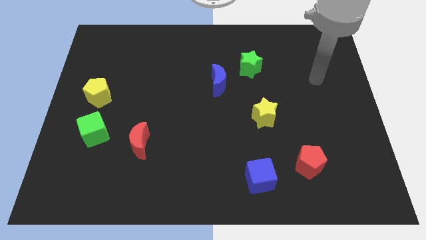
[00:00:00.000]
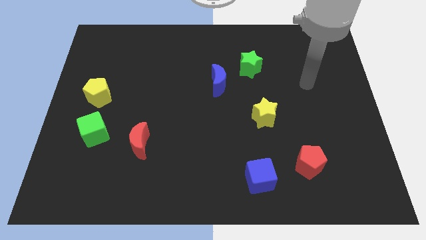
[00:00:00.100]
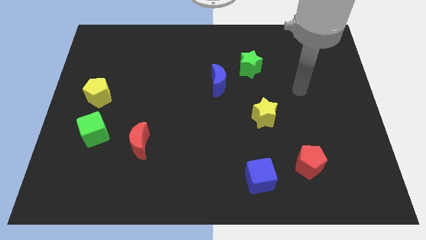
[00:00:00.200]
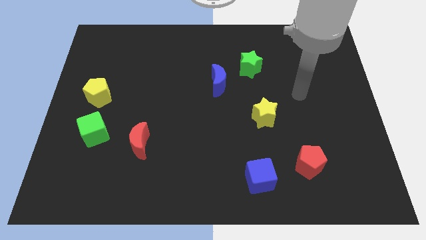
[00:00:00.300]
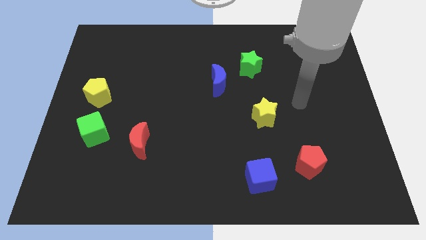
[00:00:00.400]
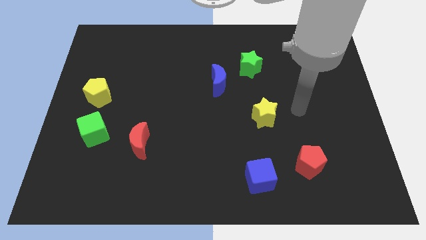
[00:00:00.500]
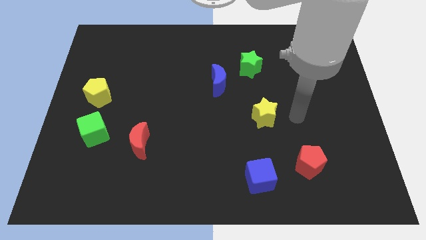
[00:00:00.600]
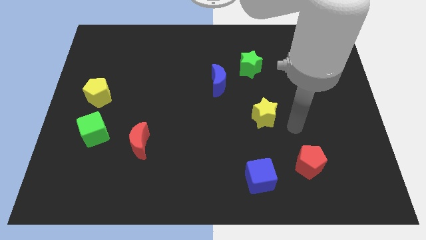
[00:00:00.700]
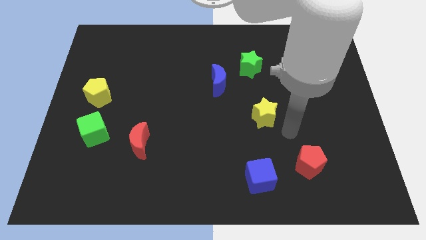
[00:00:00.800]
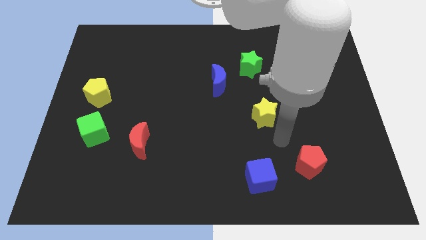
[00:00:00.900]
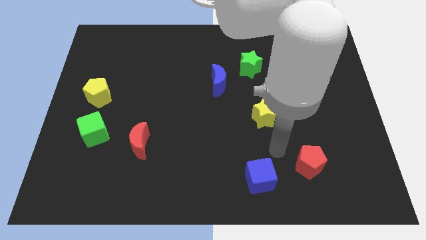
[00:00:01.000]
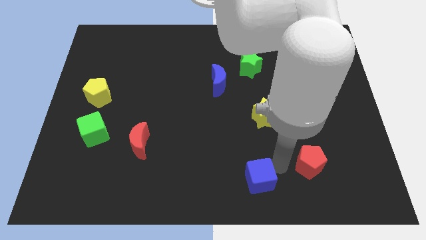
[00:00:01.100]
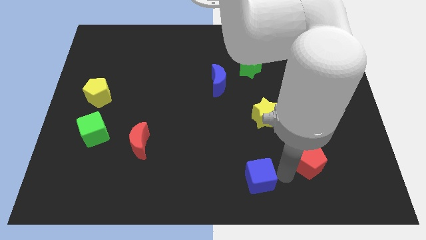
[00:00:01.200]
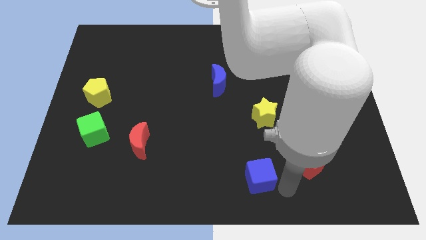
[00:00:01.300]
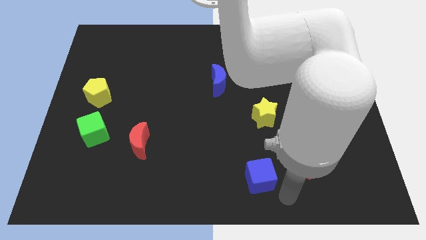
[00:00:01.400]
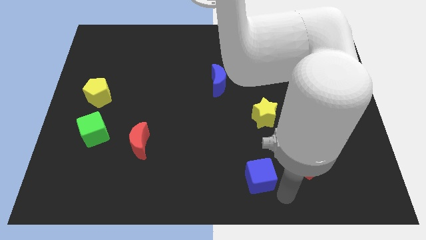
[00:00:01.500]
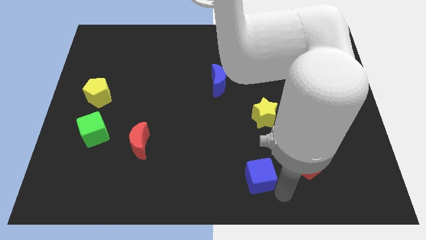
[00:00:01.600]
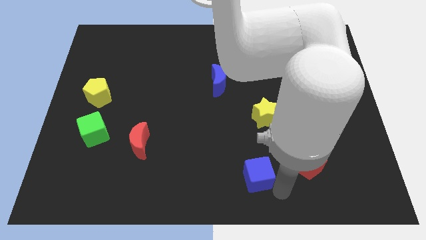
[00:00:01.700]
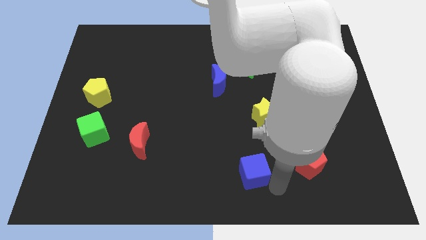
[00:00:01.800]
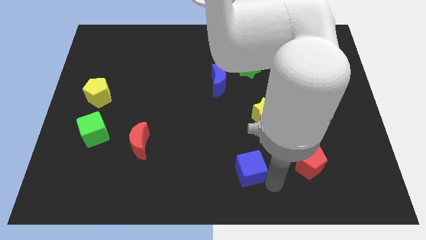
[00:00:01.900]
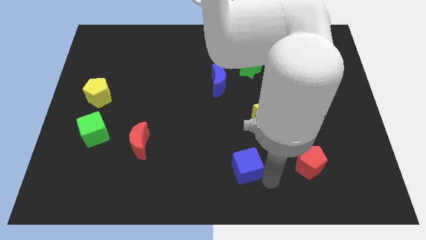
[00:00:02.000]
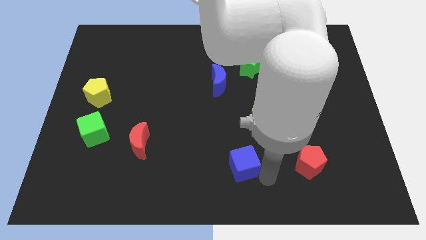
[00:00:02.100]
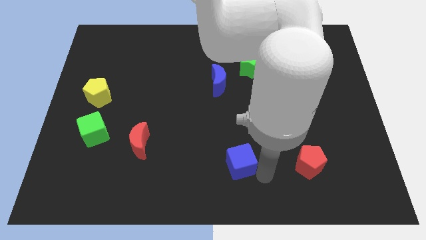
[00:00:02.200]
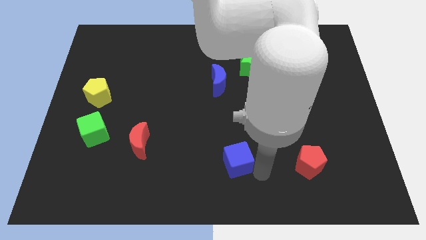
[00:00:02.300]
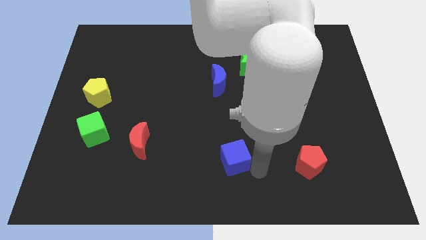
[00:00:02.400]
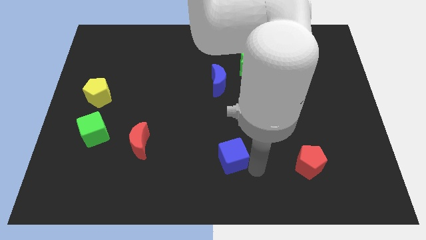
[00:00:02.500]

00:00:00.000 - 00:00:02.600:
slightly move the blue cube upwards and left

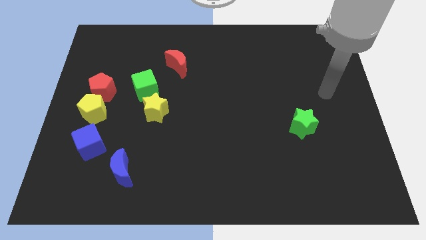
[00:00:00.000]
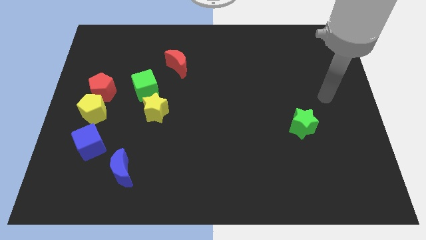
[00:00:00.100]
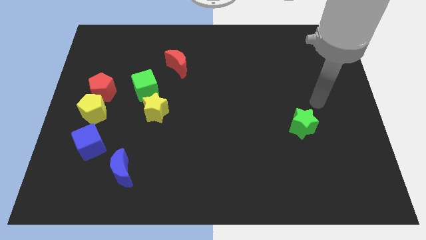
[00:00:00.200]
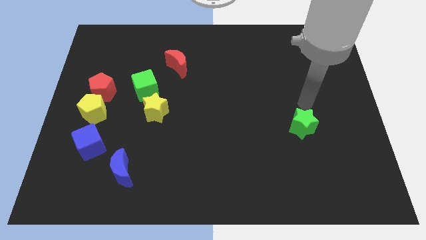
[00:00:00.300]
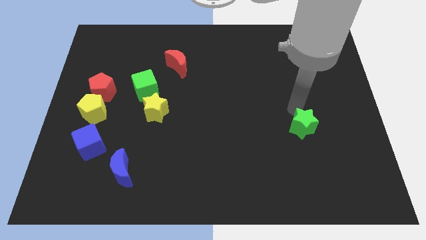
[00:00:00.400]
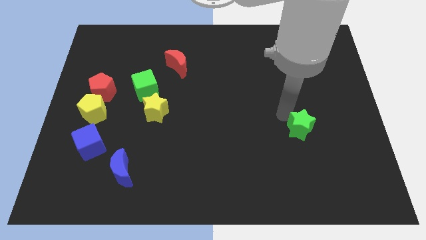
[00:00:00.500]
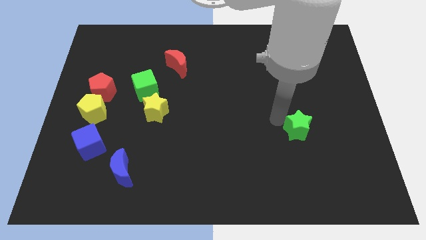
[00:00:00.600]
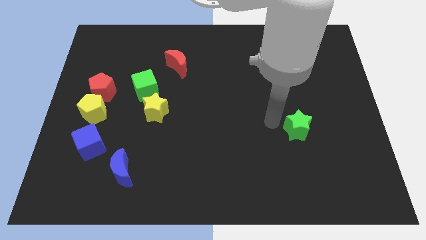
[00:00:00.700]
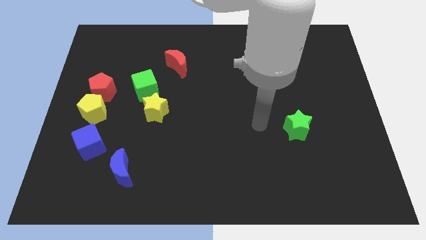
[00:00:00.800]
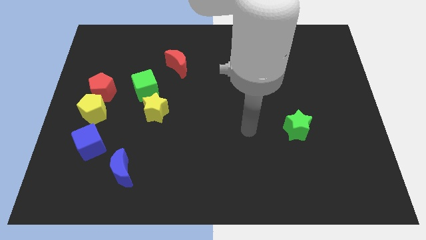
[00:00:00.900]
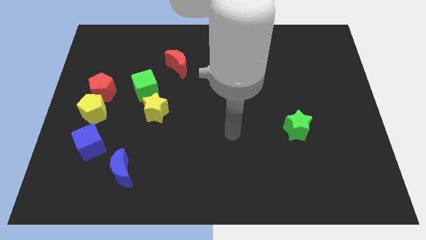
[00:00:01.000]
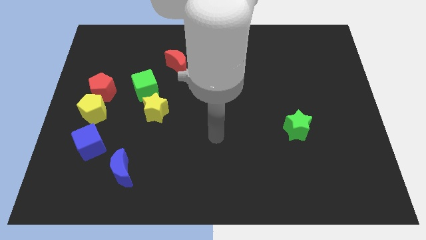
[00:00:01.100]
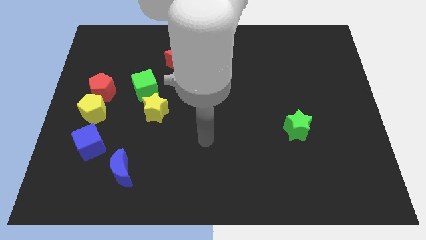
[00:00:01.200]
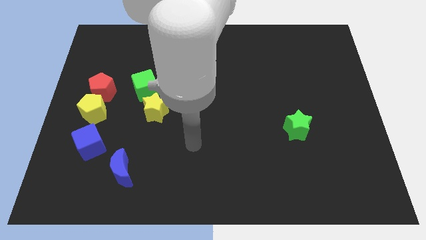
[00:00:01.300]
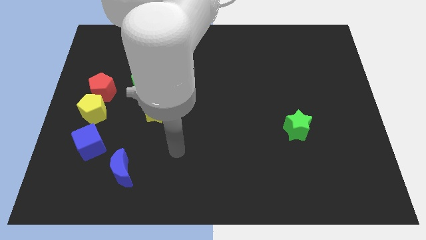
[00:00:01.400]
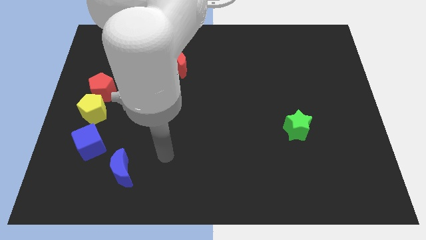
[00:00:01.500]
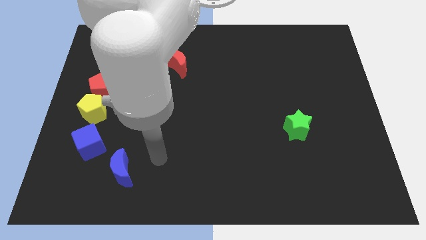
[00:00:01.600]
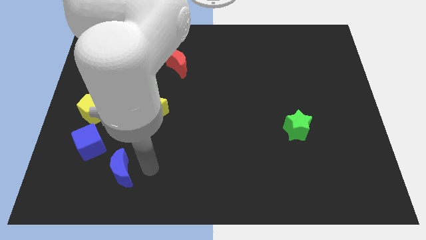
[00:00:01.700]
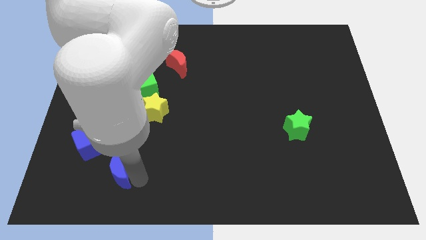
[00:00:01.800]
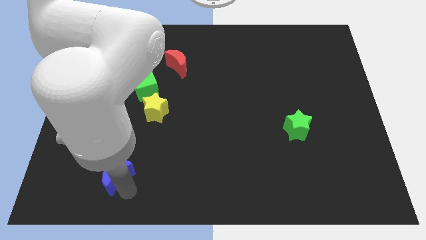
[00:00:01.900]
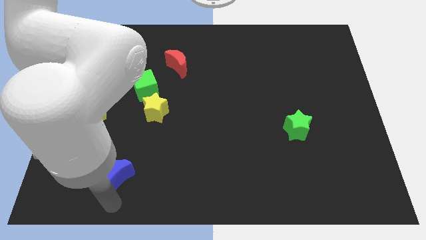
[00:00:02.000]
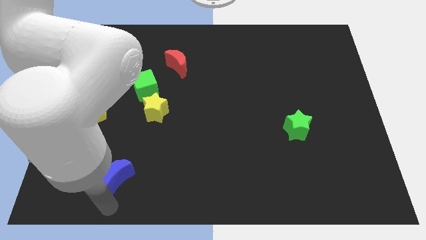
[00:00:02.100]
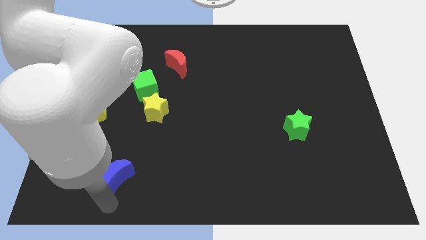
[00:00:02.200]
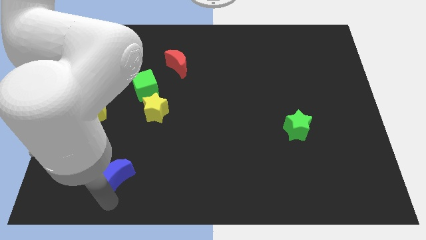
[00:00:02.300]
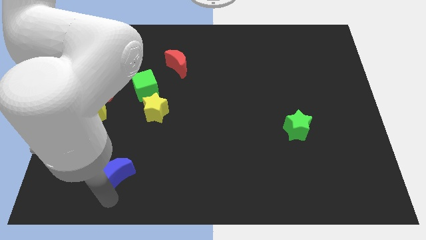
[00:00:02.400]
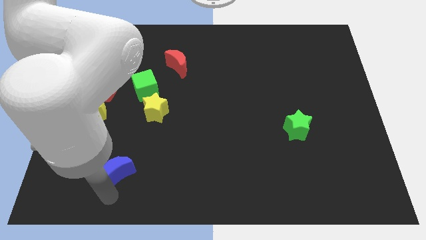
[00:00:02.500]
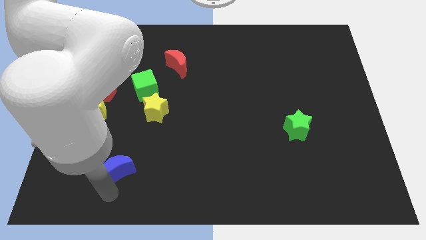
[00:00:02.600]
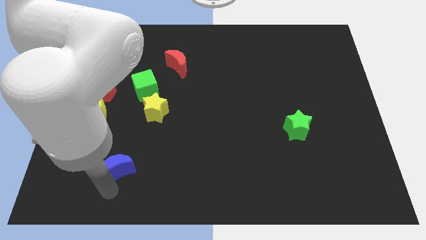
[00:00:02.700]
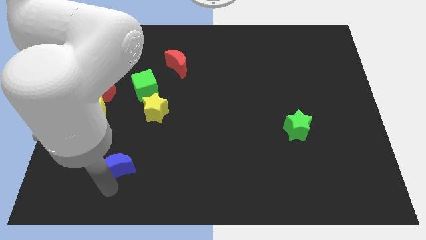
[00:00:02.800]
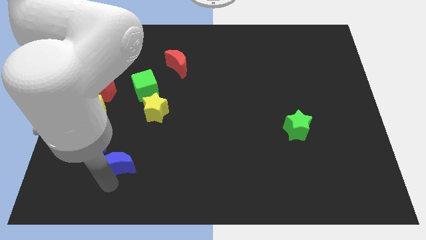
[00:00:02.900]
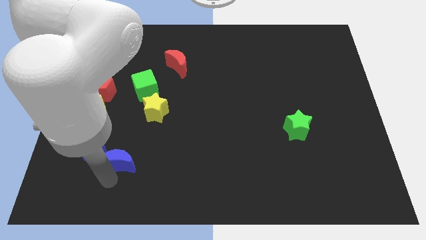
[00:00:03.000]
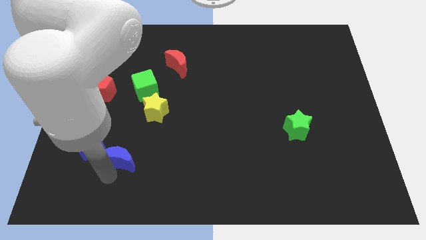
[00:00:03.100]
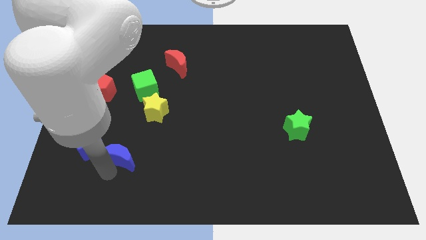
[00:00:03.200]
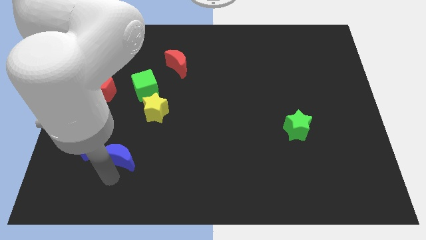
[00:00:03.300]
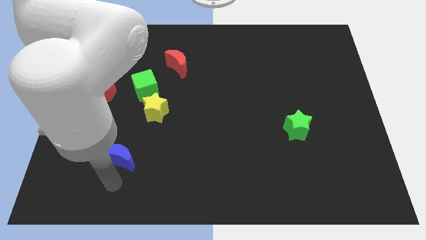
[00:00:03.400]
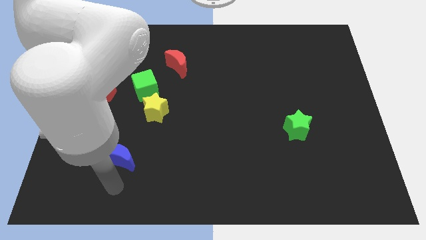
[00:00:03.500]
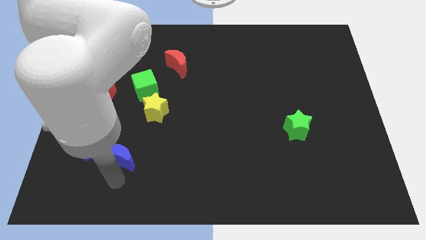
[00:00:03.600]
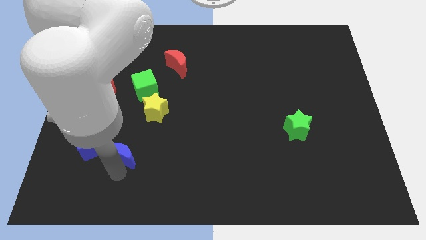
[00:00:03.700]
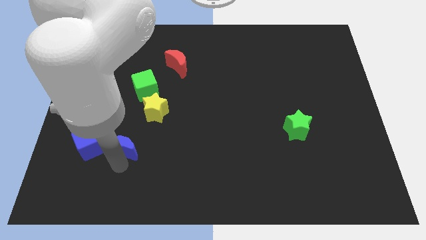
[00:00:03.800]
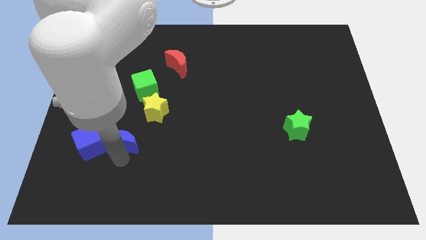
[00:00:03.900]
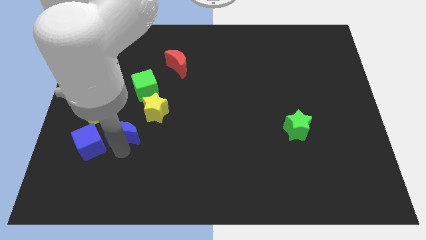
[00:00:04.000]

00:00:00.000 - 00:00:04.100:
slide the blue moon a little upwards

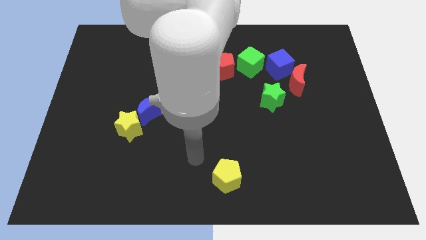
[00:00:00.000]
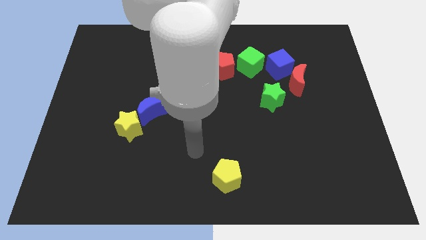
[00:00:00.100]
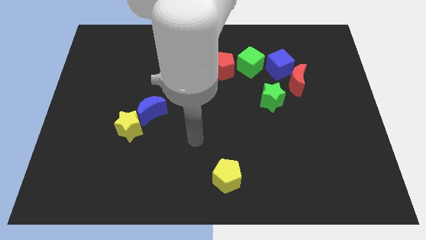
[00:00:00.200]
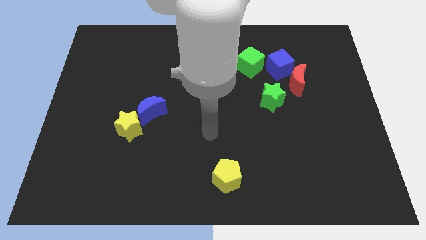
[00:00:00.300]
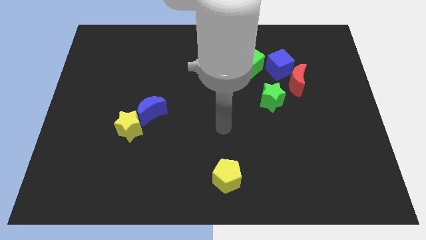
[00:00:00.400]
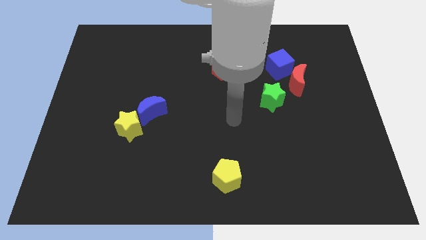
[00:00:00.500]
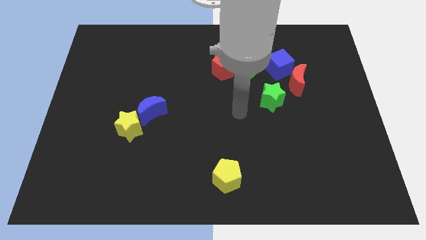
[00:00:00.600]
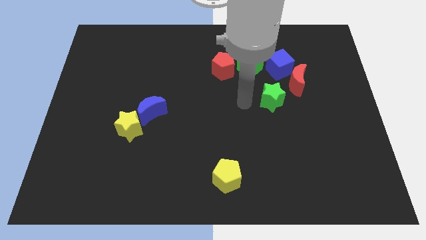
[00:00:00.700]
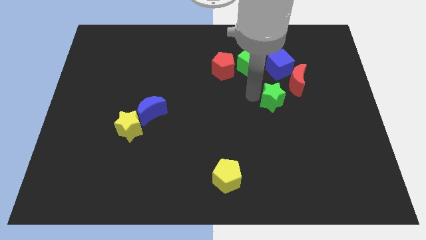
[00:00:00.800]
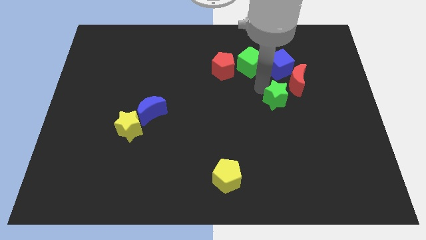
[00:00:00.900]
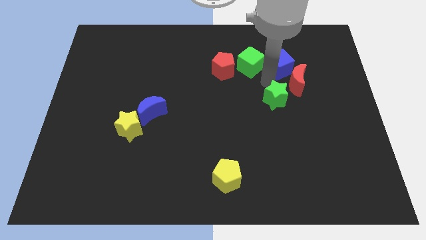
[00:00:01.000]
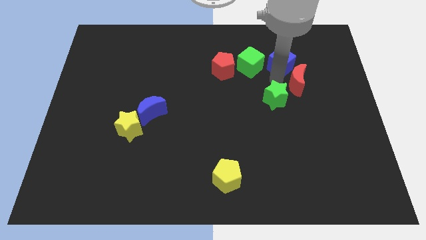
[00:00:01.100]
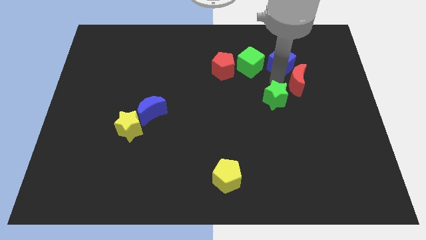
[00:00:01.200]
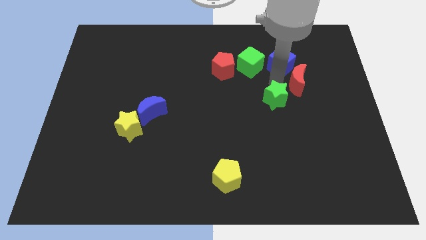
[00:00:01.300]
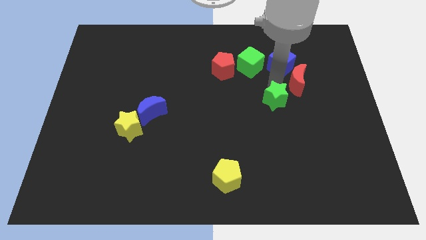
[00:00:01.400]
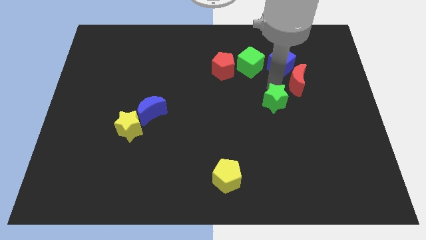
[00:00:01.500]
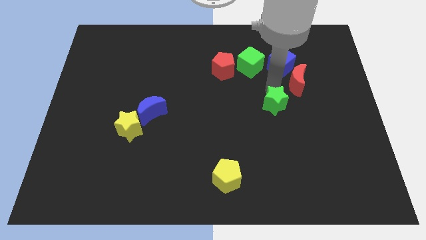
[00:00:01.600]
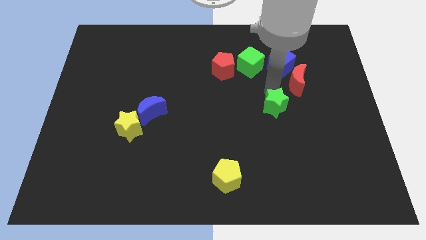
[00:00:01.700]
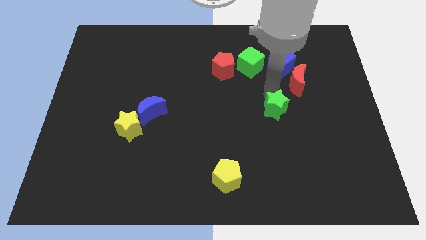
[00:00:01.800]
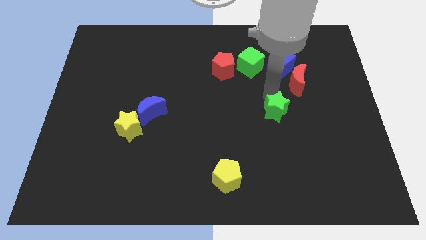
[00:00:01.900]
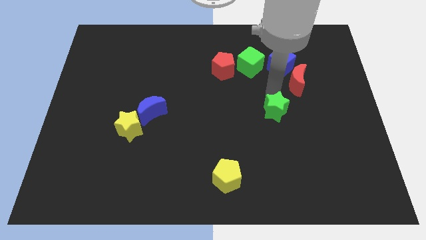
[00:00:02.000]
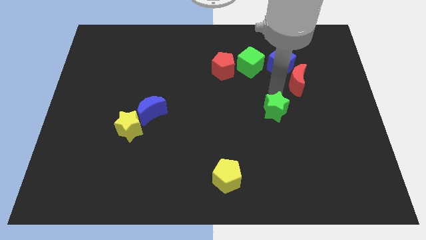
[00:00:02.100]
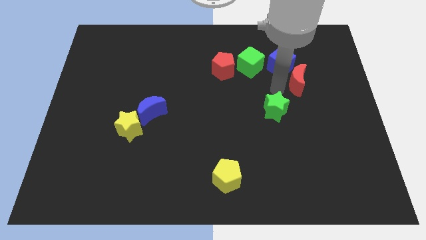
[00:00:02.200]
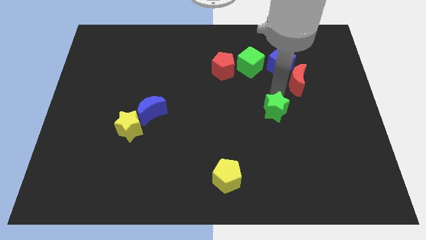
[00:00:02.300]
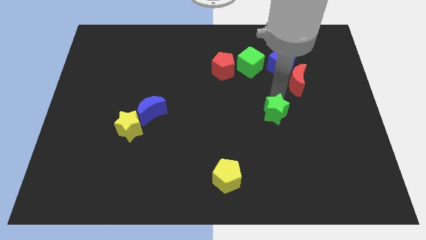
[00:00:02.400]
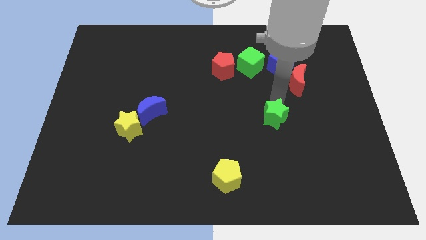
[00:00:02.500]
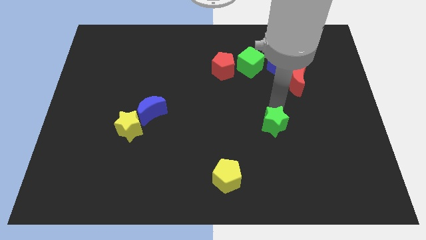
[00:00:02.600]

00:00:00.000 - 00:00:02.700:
push the green star down a little bit
